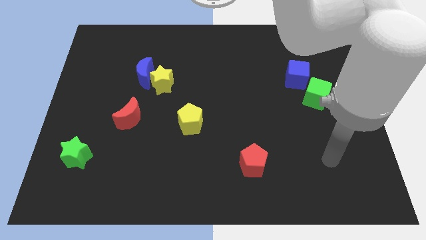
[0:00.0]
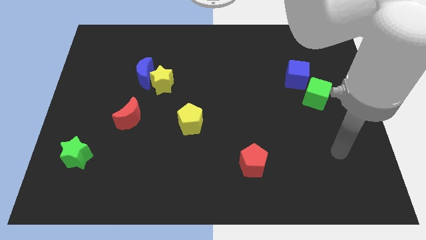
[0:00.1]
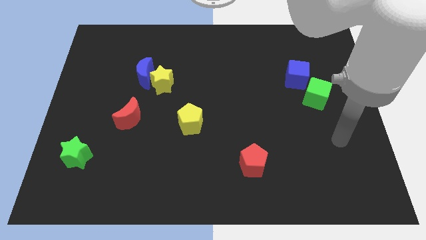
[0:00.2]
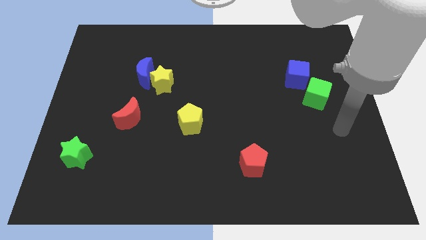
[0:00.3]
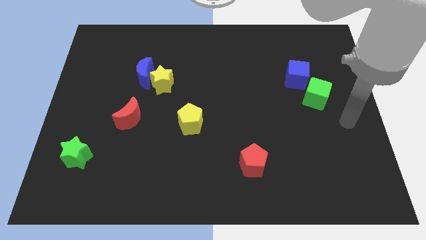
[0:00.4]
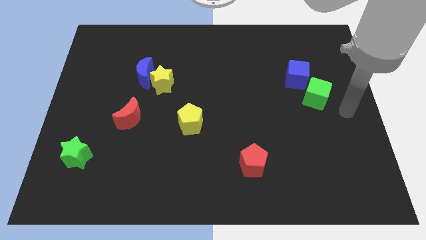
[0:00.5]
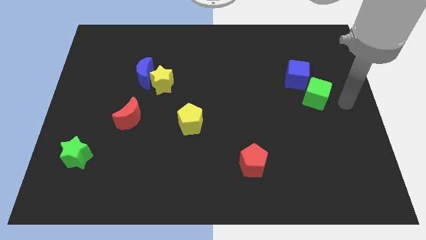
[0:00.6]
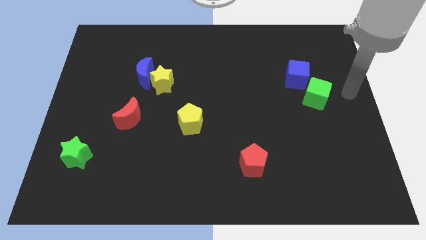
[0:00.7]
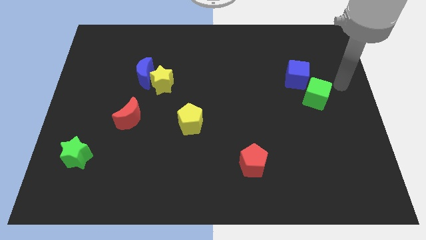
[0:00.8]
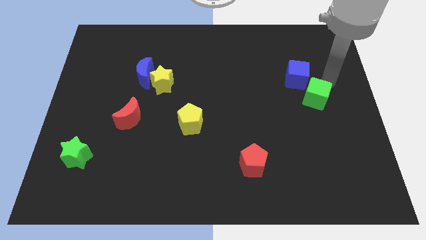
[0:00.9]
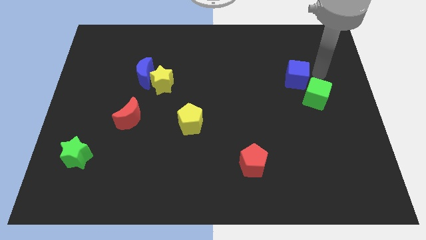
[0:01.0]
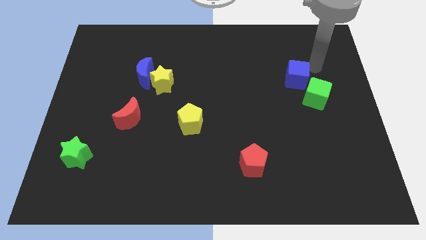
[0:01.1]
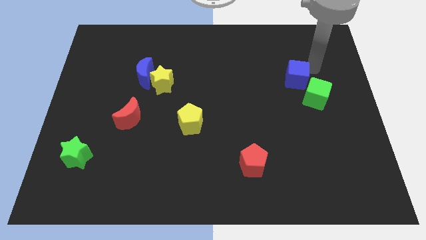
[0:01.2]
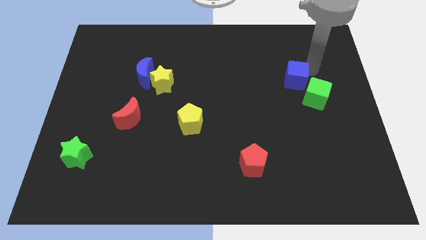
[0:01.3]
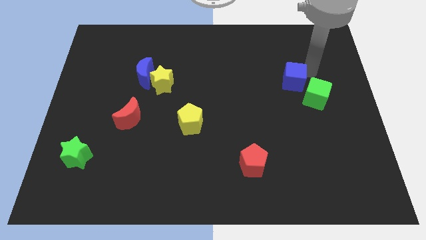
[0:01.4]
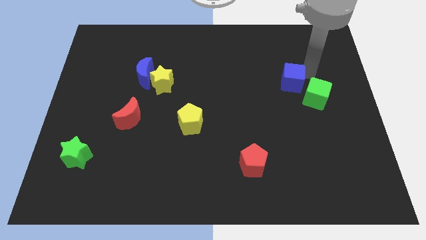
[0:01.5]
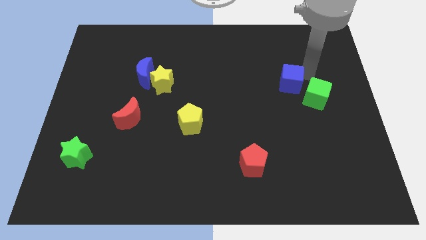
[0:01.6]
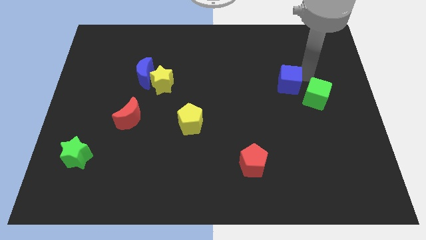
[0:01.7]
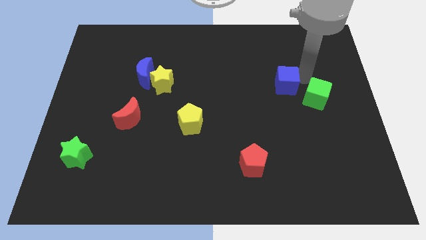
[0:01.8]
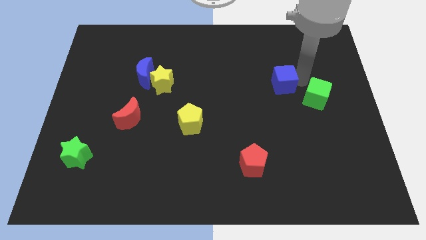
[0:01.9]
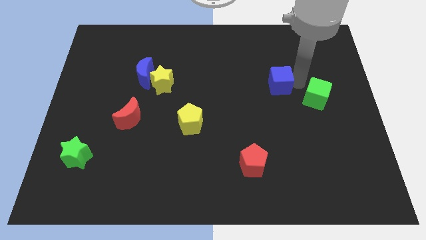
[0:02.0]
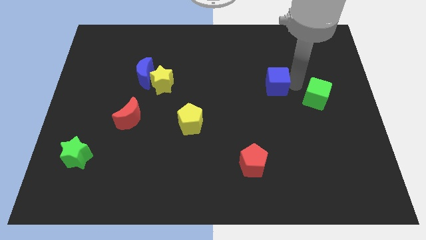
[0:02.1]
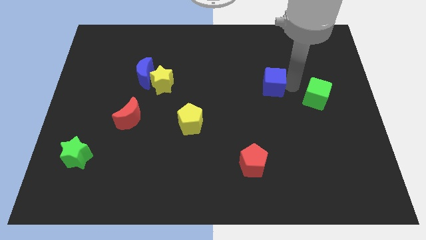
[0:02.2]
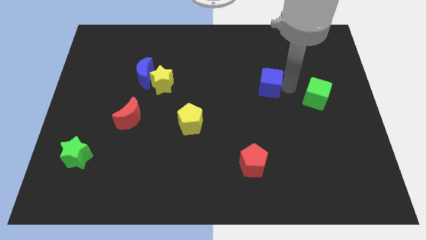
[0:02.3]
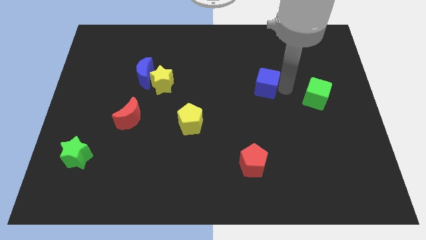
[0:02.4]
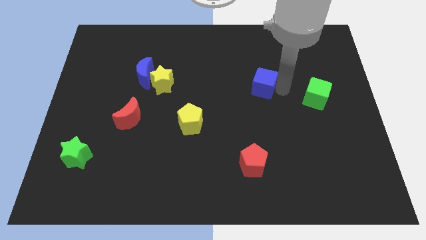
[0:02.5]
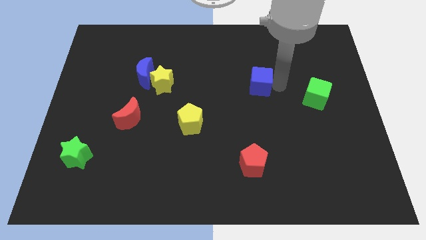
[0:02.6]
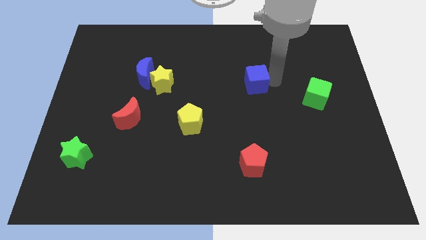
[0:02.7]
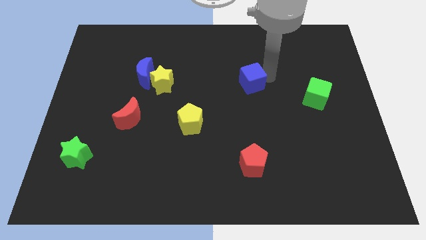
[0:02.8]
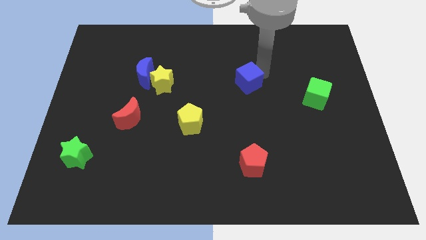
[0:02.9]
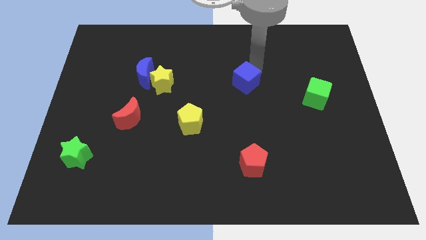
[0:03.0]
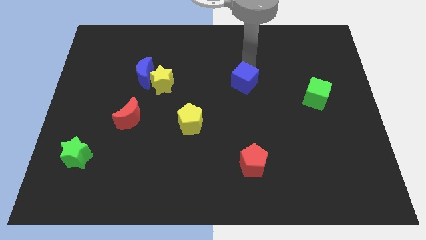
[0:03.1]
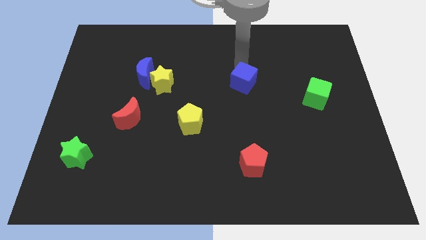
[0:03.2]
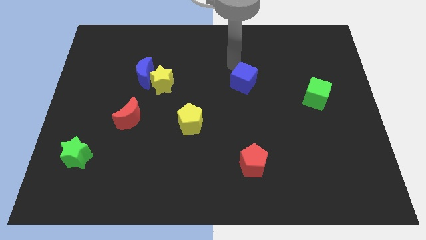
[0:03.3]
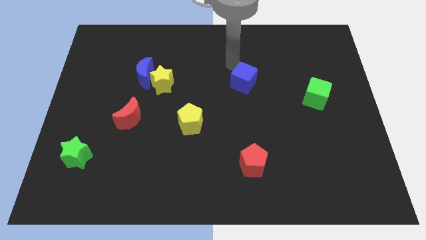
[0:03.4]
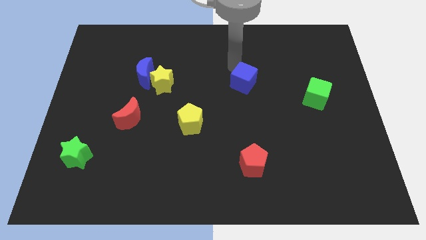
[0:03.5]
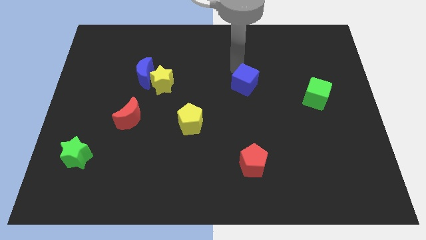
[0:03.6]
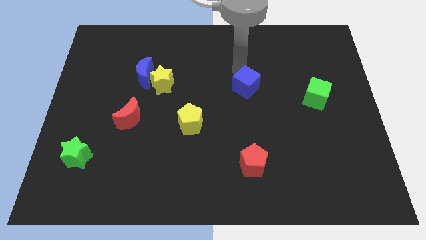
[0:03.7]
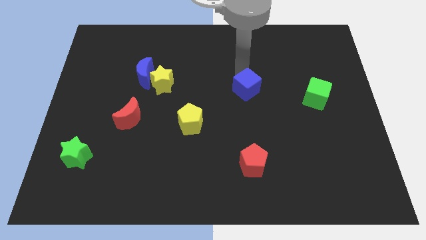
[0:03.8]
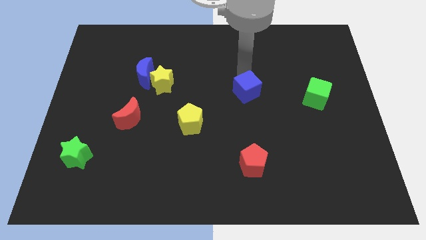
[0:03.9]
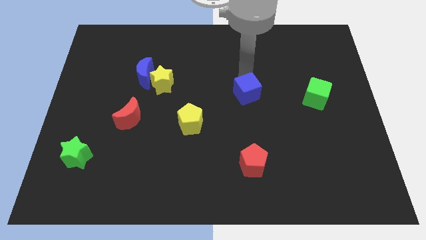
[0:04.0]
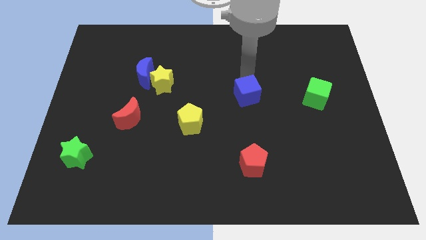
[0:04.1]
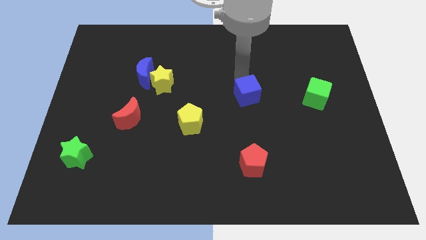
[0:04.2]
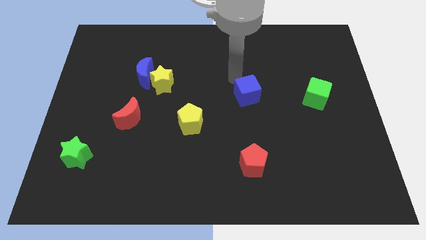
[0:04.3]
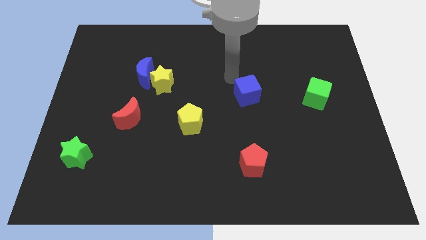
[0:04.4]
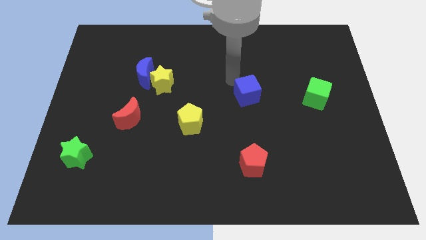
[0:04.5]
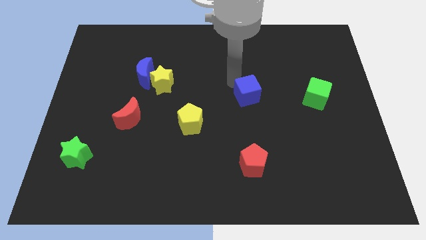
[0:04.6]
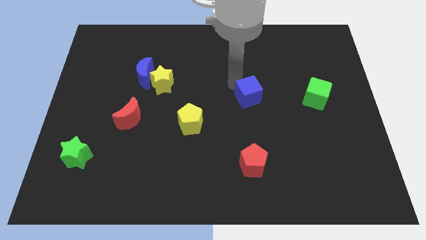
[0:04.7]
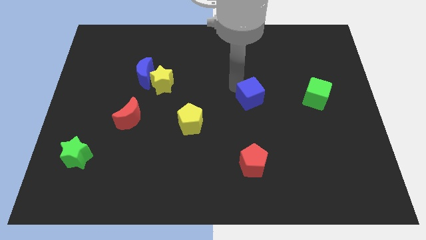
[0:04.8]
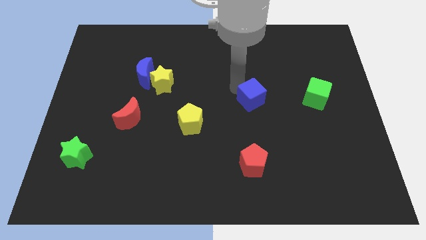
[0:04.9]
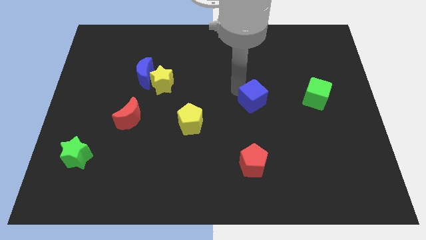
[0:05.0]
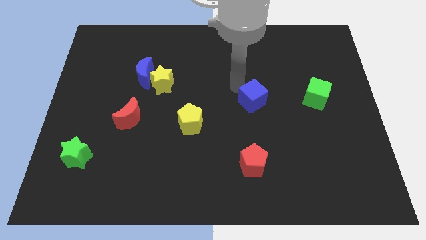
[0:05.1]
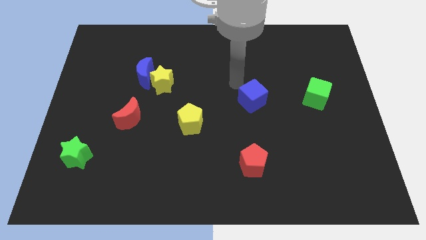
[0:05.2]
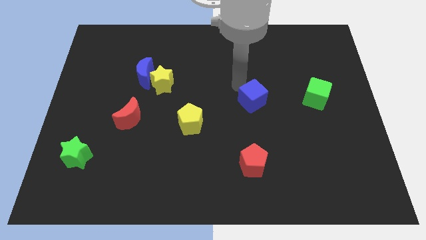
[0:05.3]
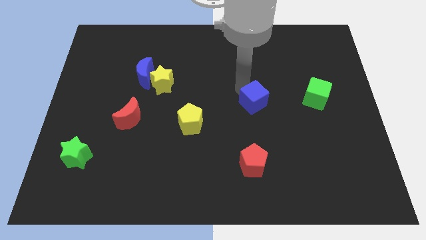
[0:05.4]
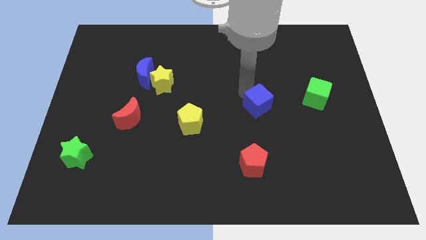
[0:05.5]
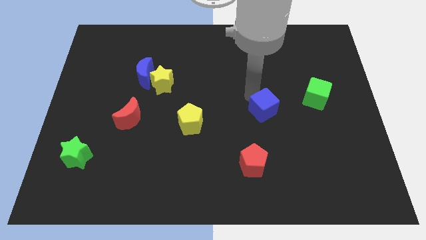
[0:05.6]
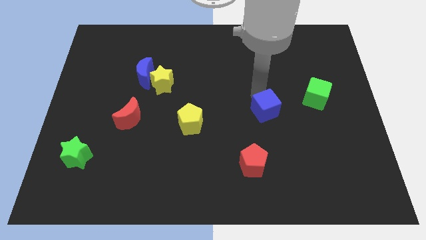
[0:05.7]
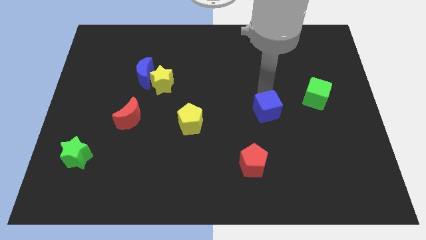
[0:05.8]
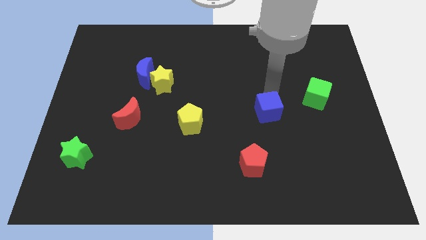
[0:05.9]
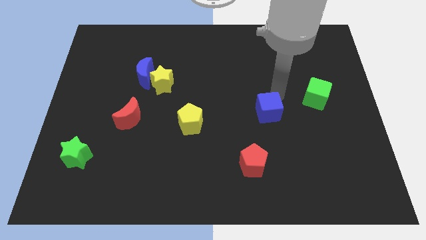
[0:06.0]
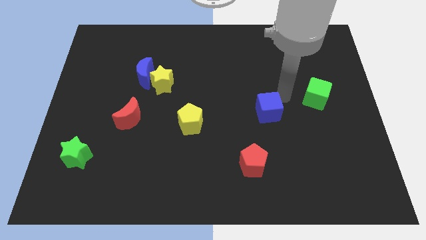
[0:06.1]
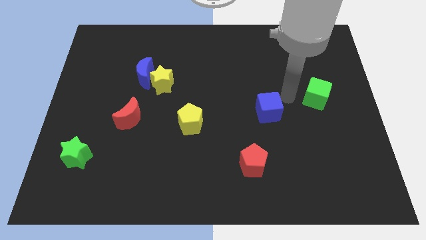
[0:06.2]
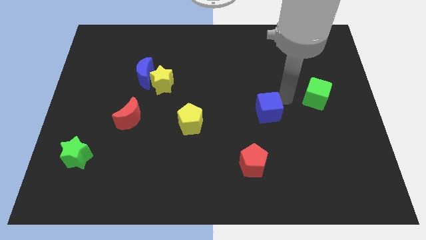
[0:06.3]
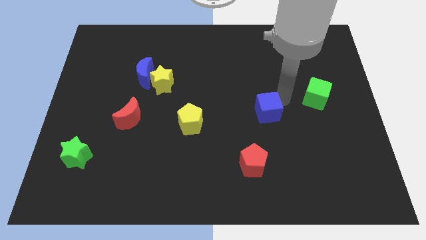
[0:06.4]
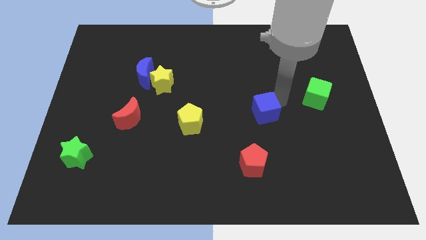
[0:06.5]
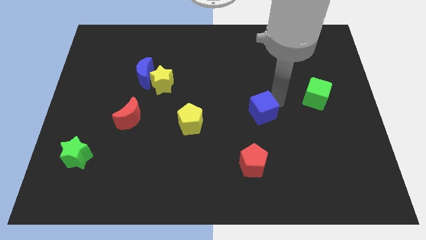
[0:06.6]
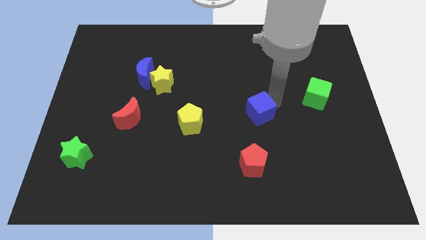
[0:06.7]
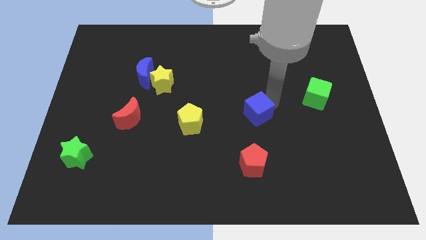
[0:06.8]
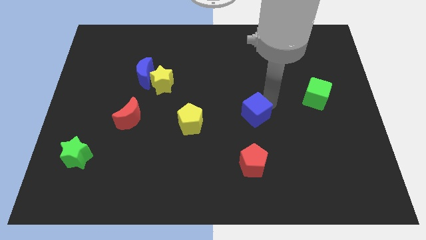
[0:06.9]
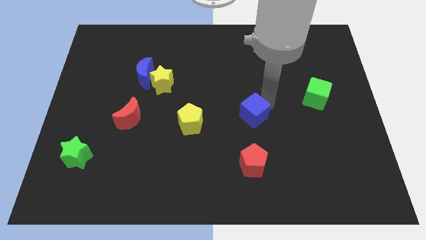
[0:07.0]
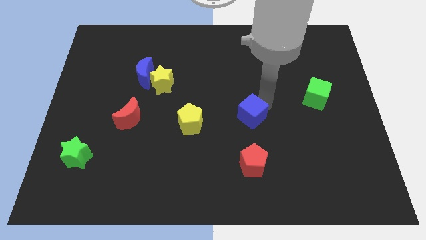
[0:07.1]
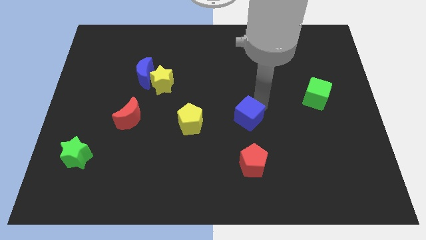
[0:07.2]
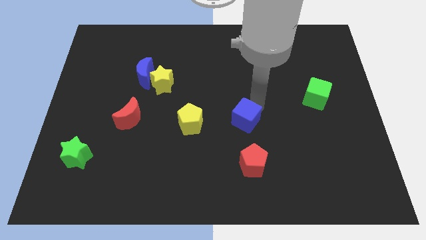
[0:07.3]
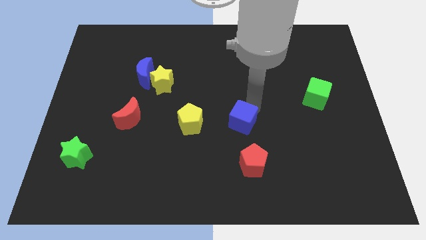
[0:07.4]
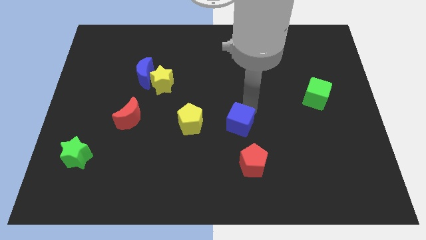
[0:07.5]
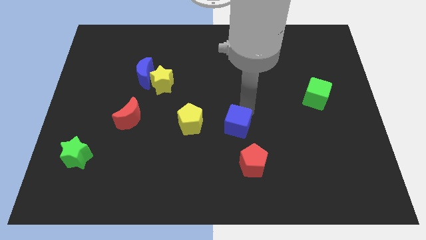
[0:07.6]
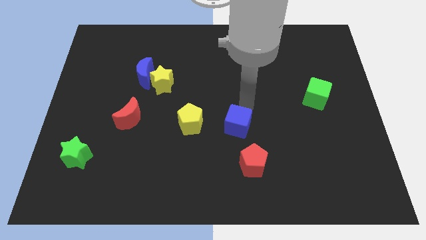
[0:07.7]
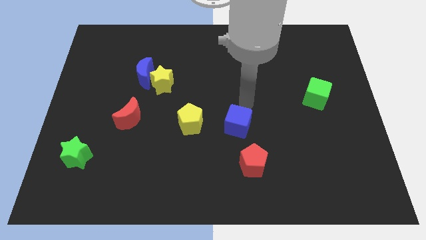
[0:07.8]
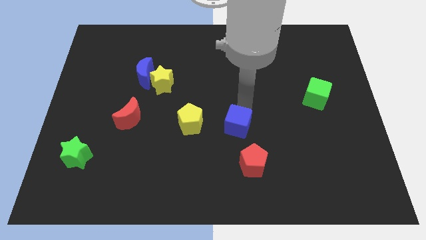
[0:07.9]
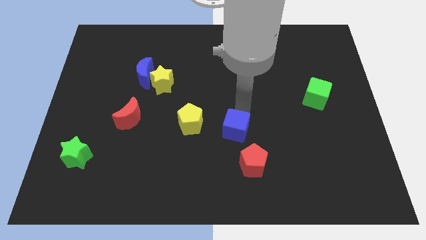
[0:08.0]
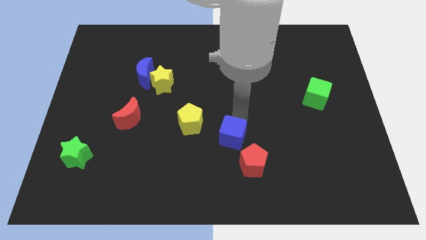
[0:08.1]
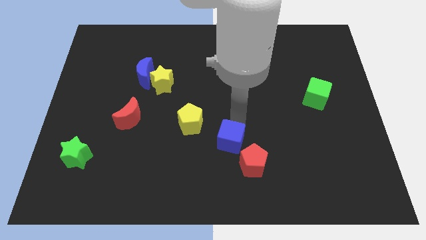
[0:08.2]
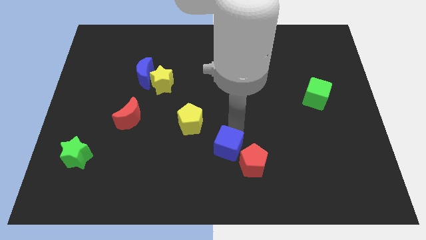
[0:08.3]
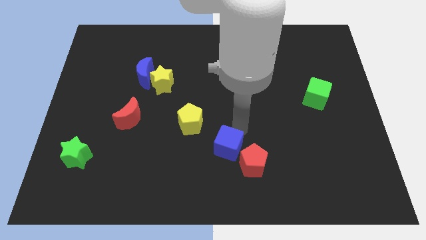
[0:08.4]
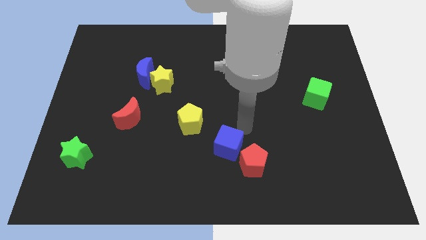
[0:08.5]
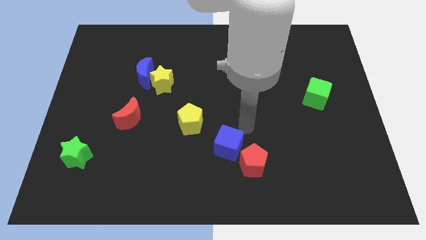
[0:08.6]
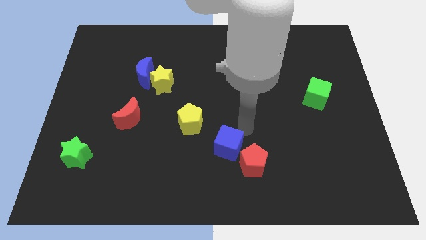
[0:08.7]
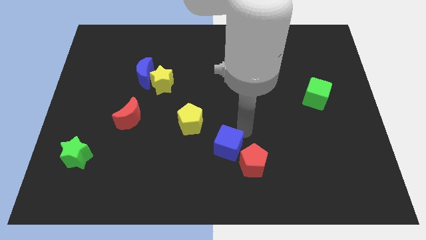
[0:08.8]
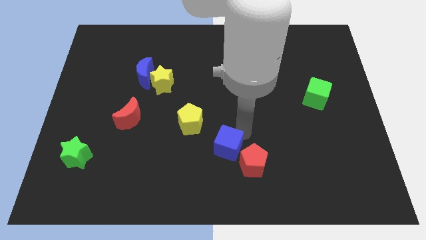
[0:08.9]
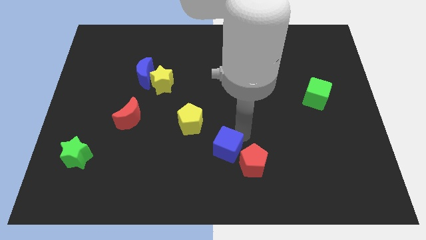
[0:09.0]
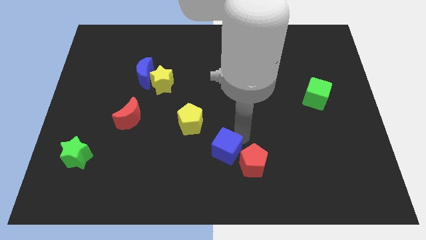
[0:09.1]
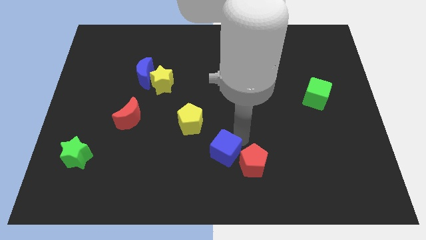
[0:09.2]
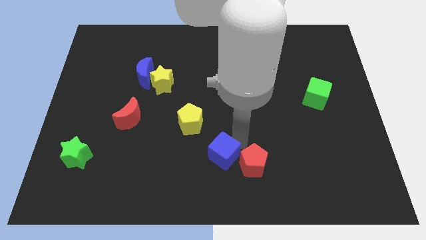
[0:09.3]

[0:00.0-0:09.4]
put the blue cube to the bottom
